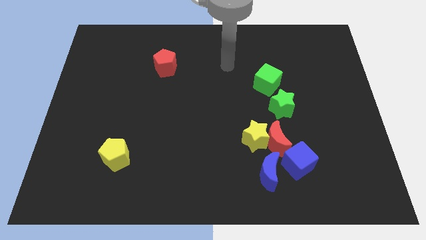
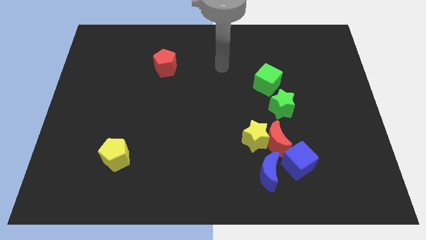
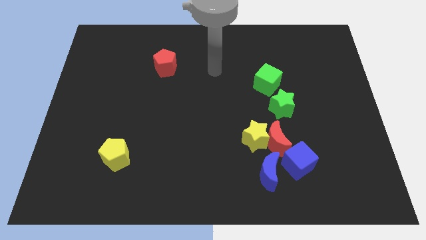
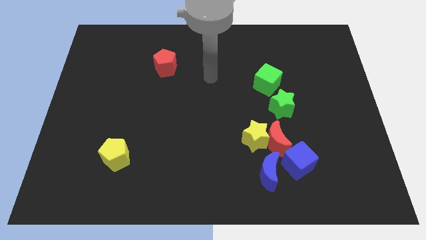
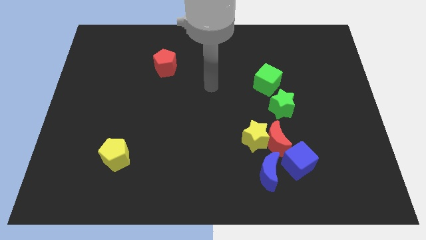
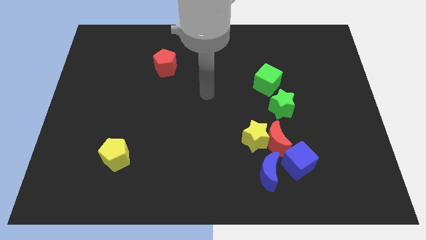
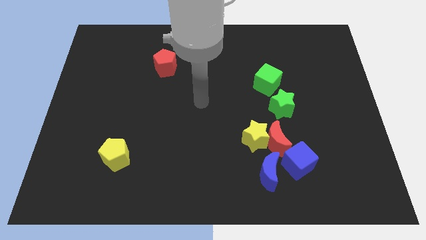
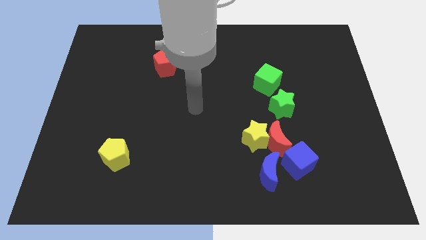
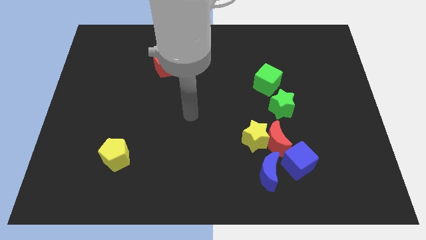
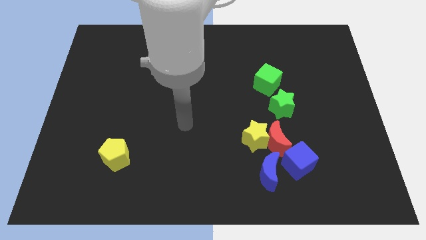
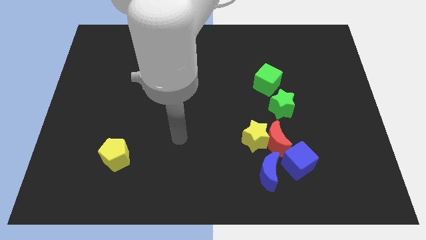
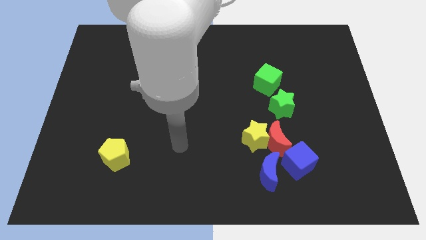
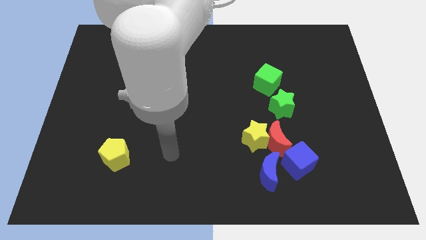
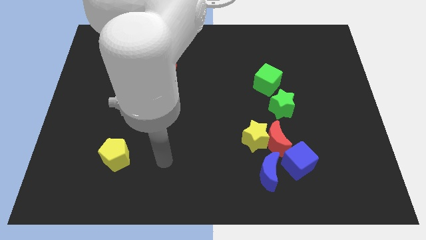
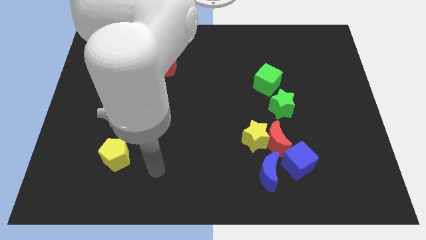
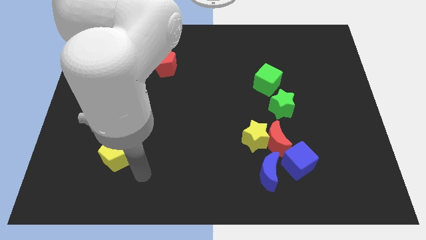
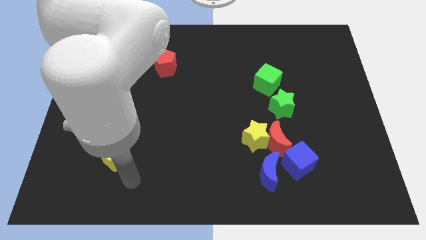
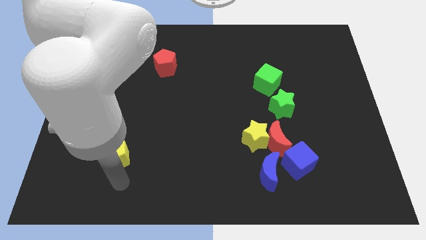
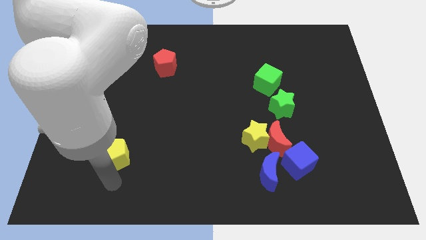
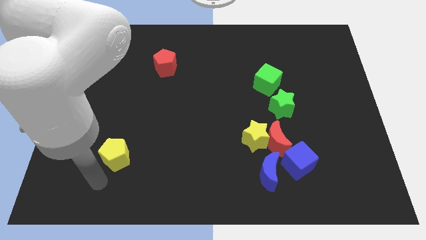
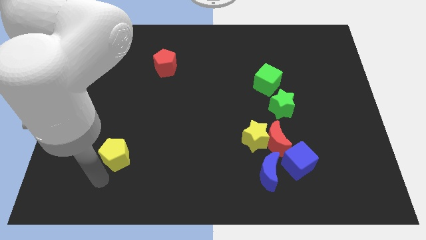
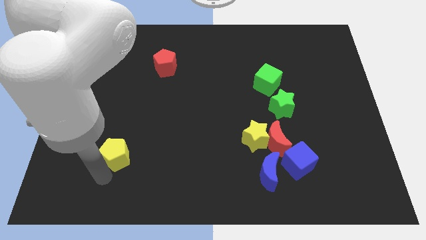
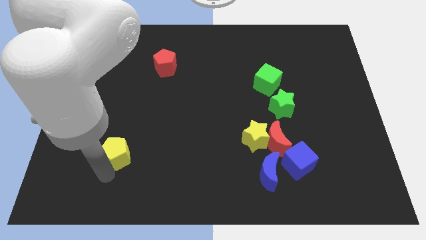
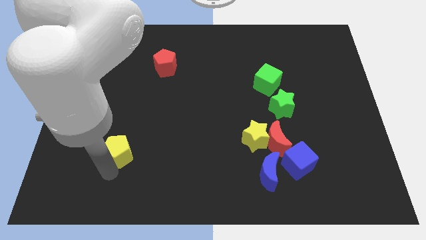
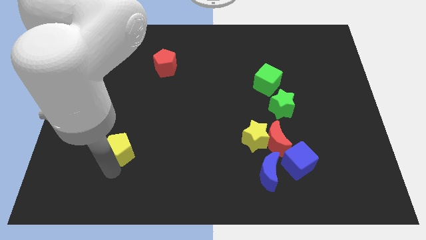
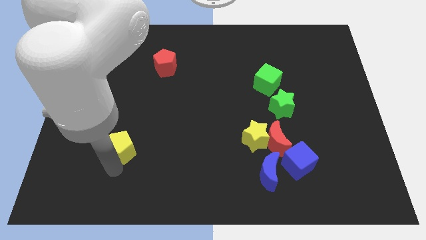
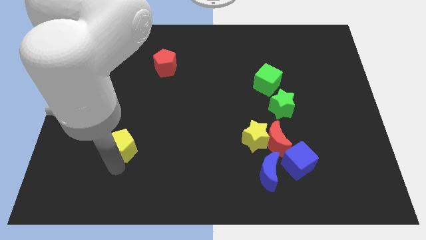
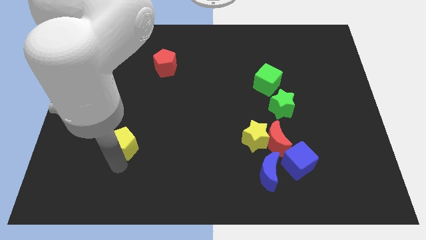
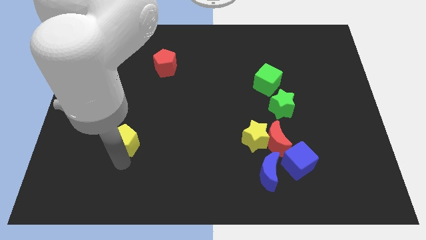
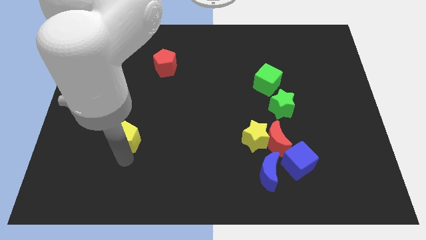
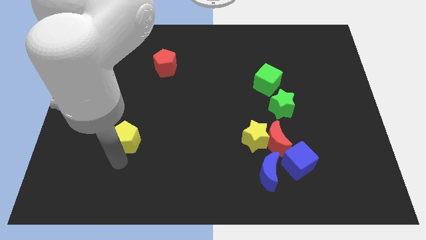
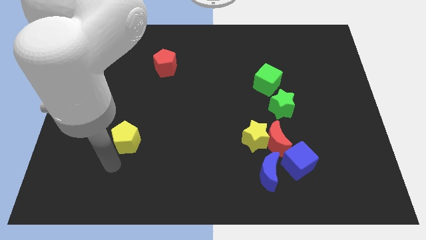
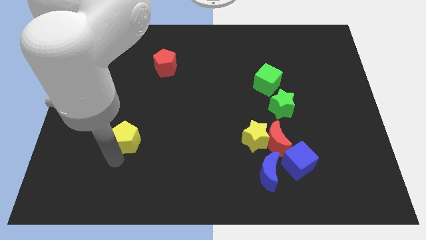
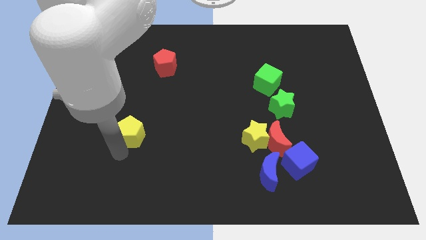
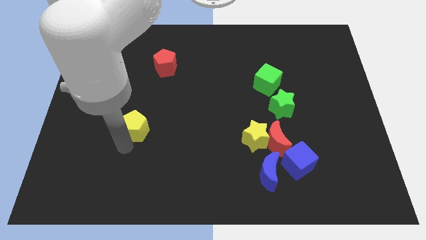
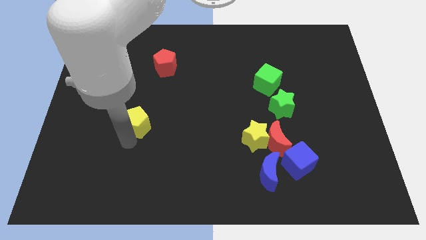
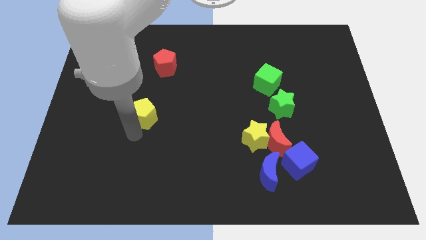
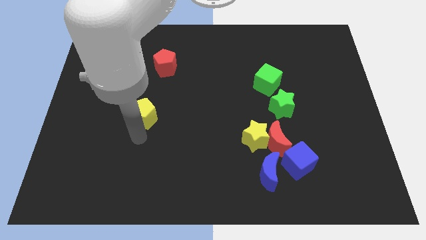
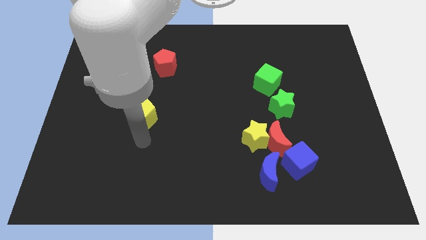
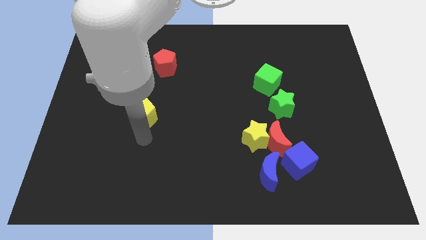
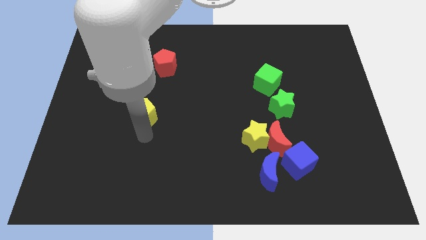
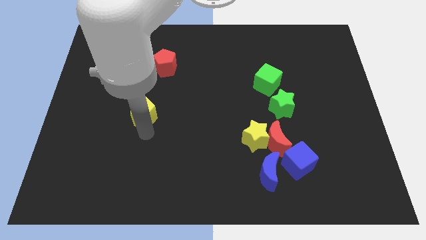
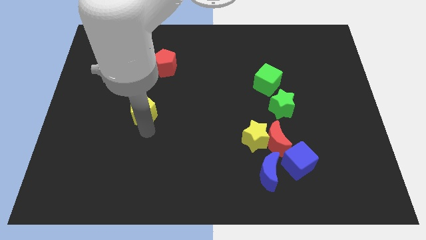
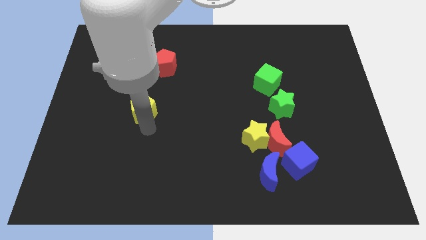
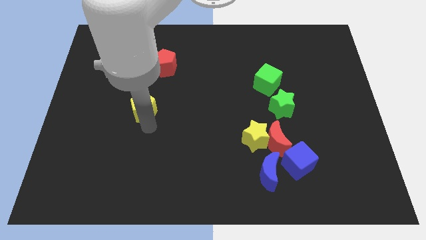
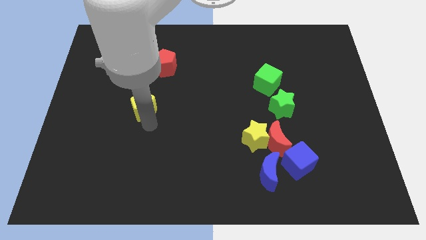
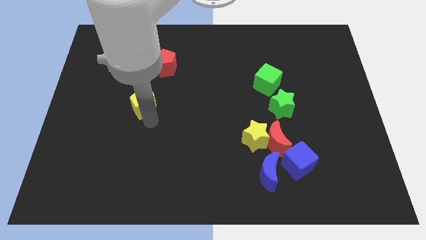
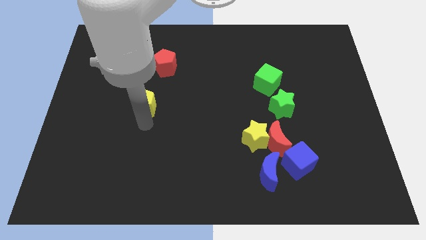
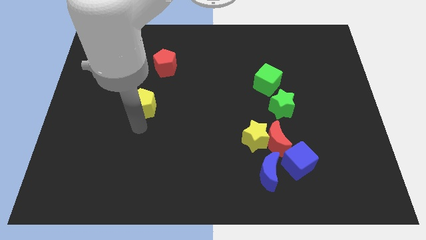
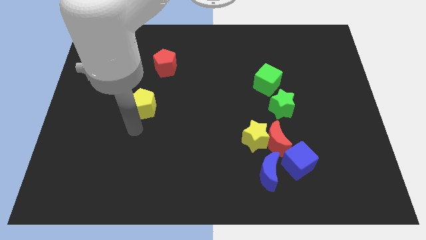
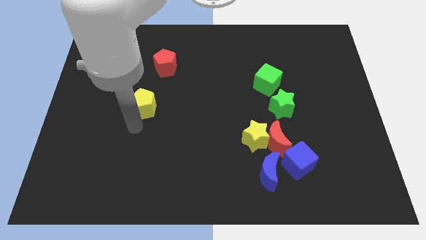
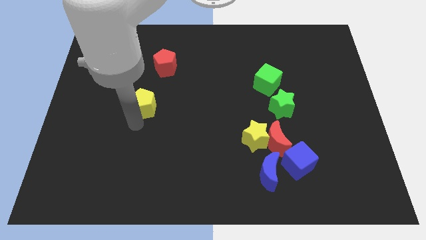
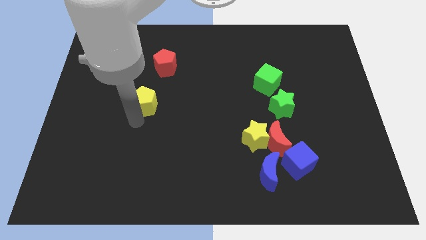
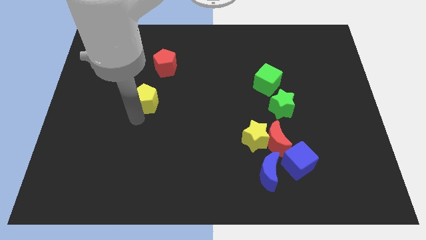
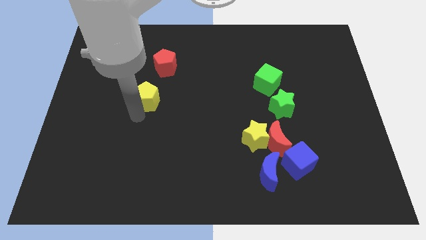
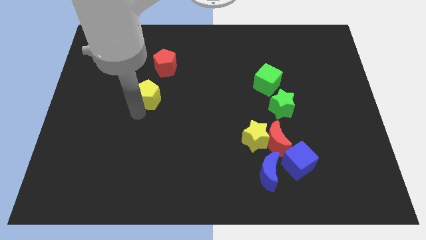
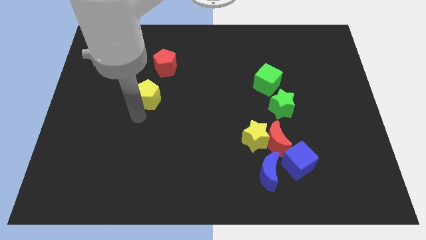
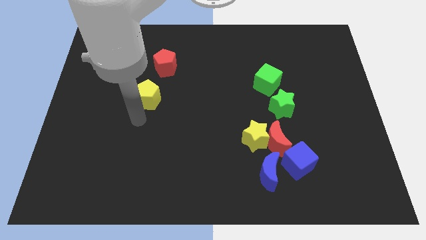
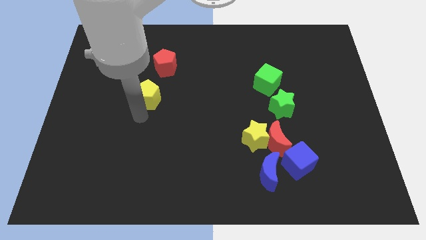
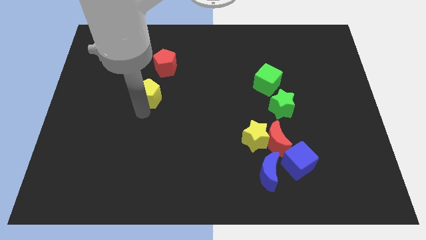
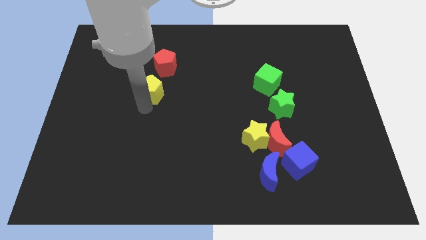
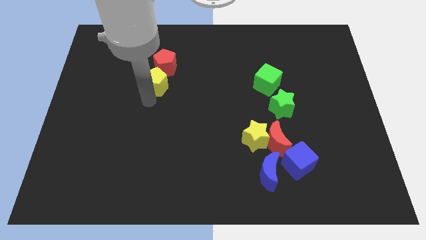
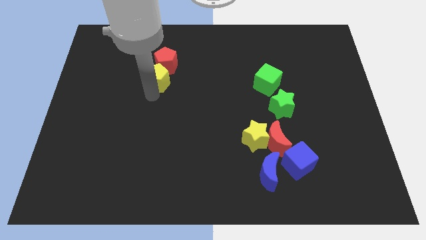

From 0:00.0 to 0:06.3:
slide the yellow pentagon towards the red pentagon

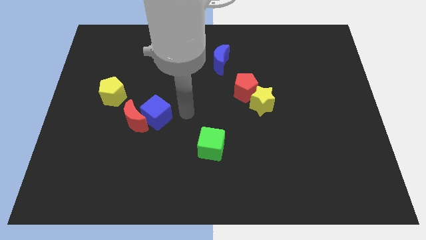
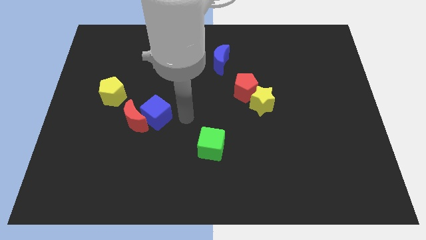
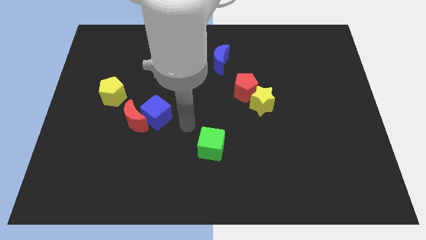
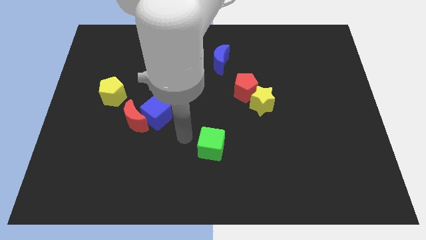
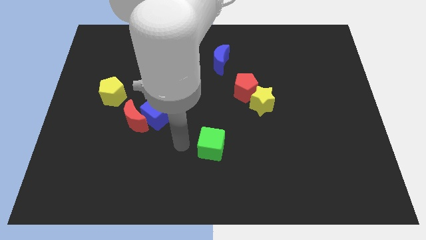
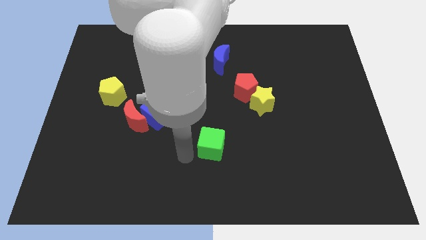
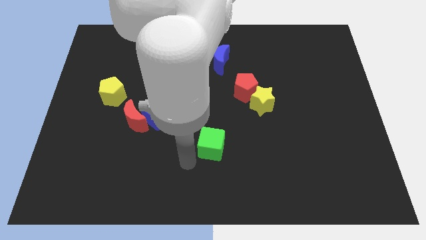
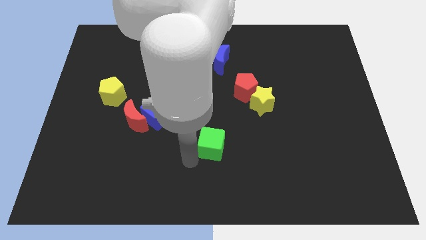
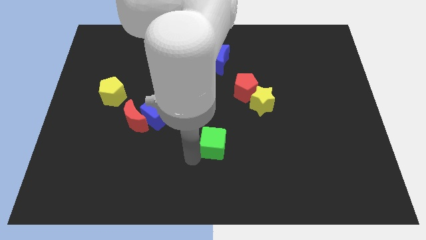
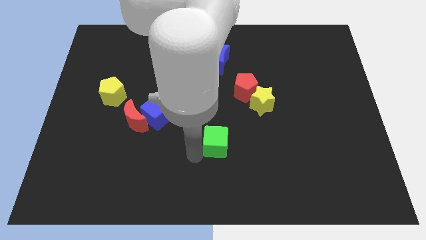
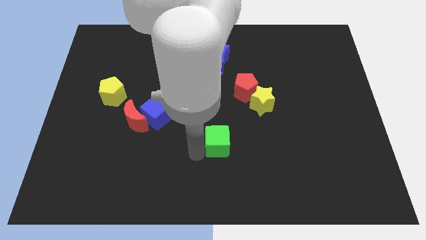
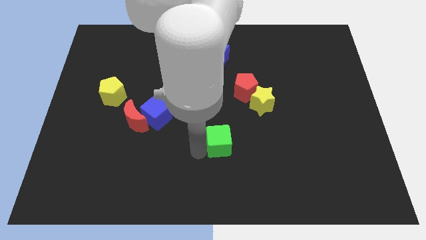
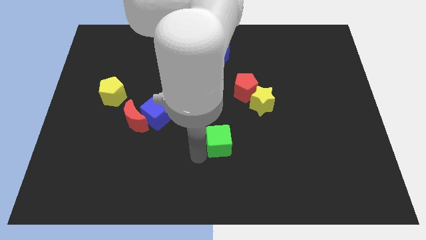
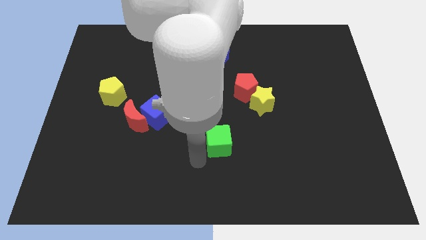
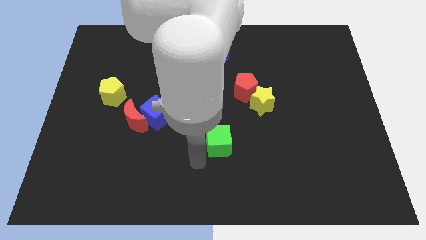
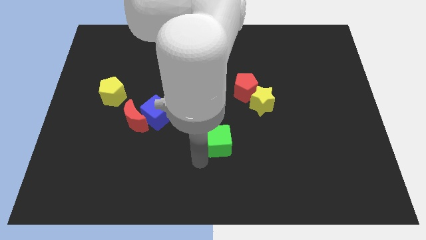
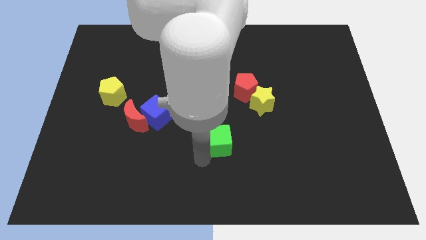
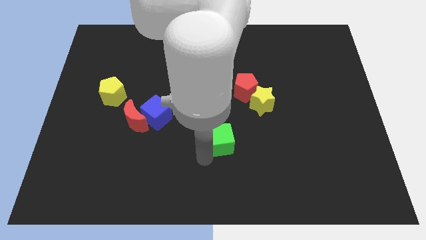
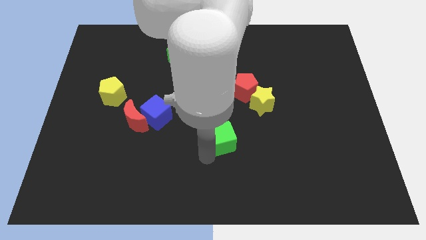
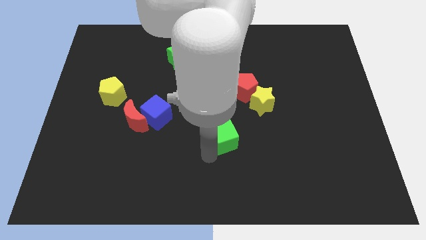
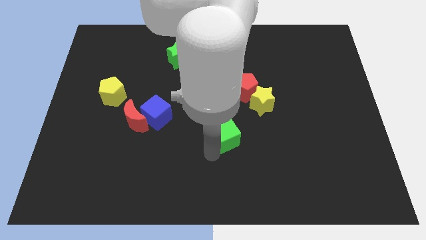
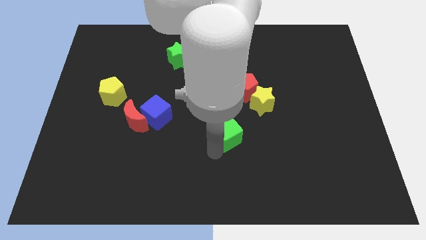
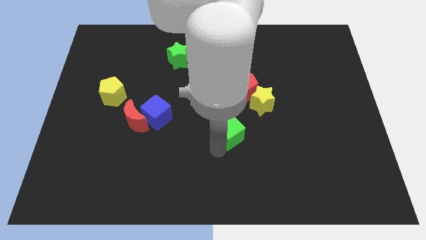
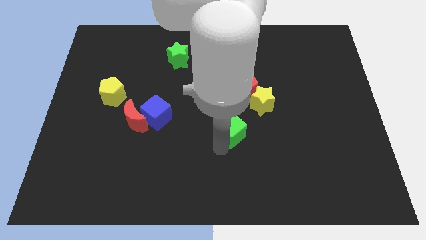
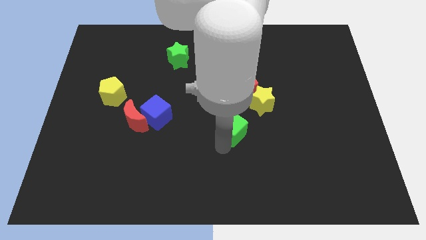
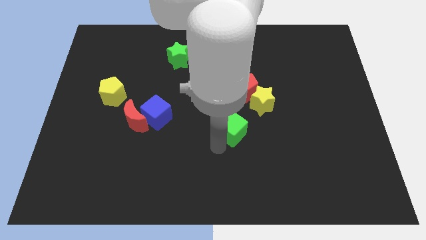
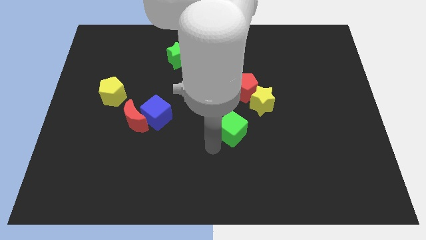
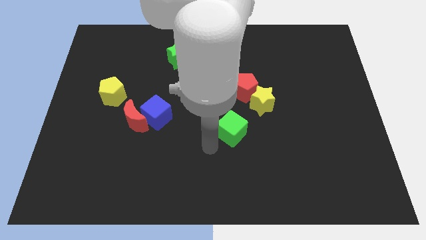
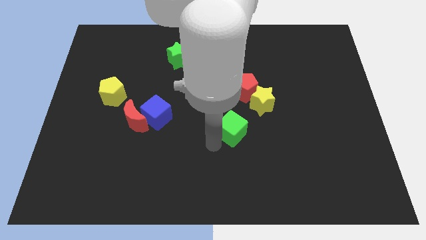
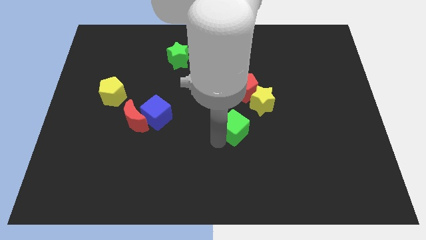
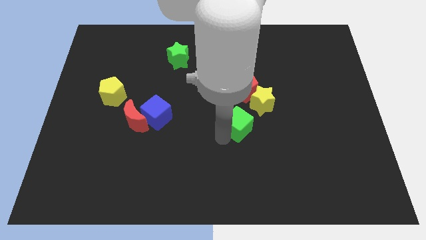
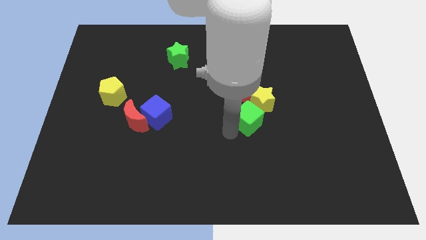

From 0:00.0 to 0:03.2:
slide the green cube close to the yellow star
